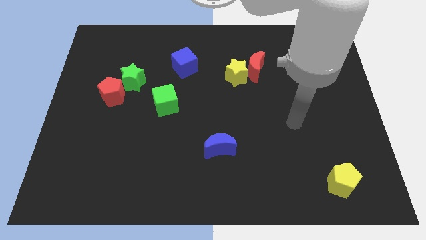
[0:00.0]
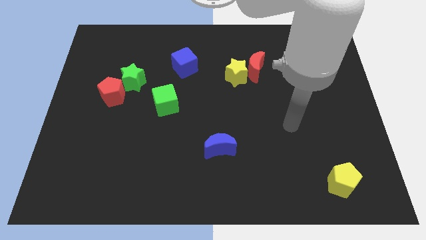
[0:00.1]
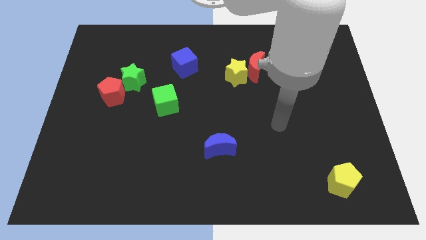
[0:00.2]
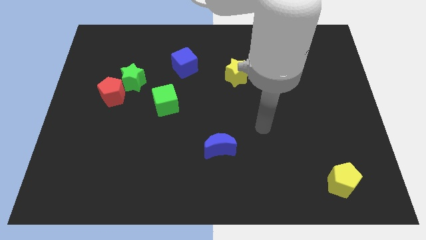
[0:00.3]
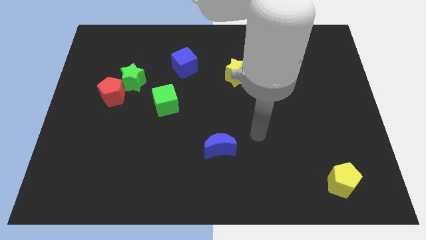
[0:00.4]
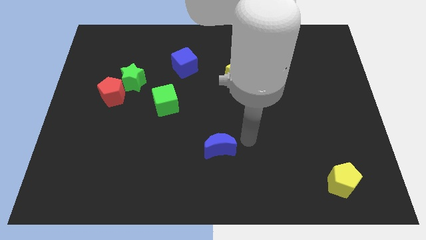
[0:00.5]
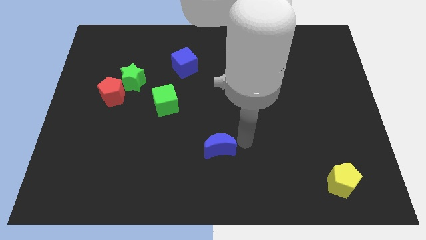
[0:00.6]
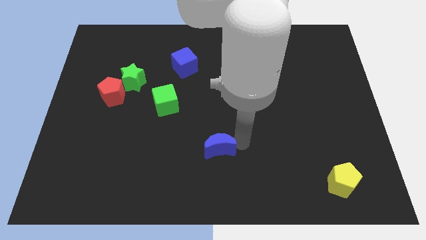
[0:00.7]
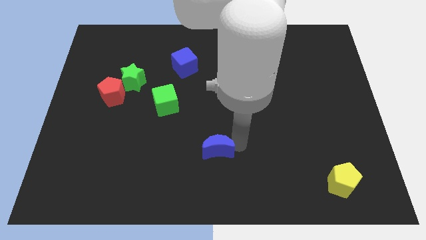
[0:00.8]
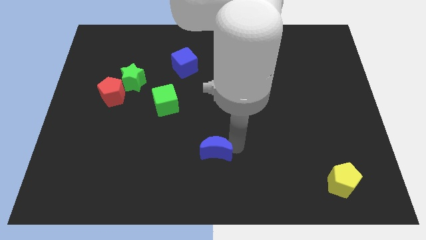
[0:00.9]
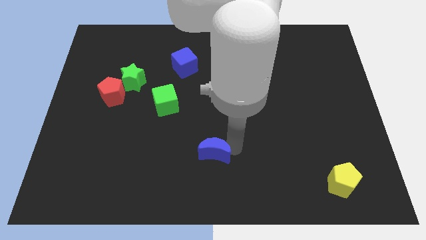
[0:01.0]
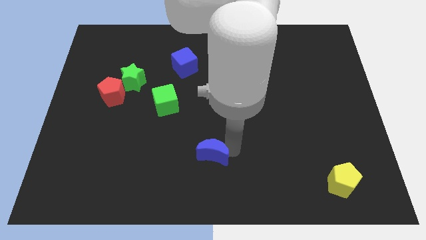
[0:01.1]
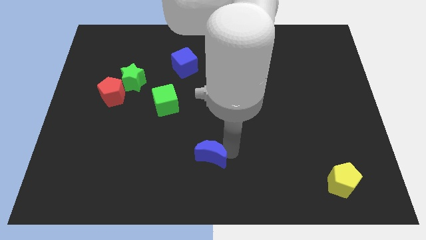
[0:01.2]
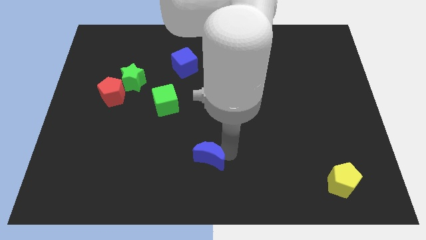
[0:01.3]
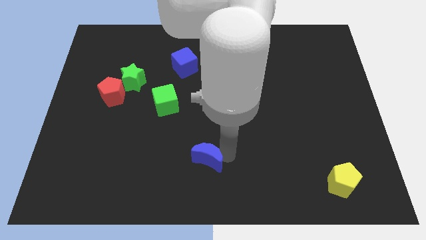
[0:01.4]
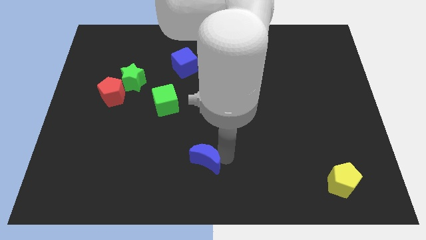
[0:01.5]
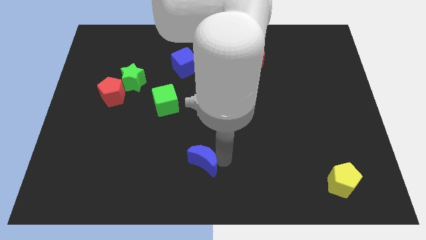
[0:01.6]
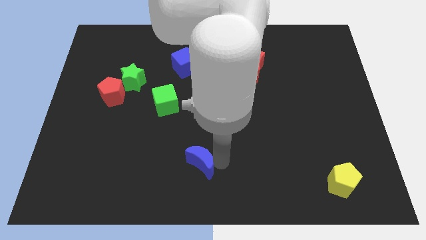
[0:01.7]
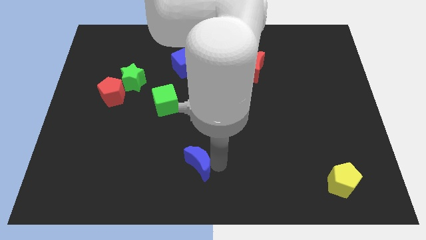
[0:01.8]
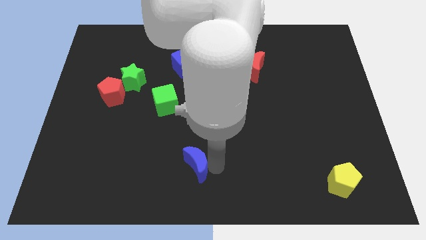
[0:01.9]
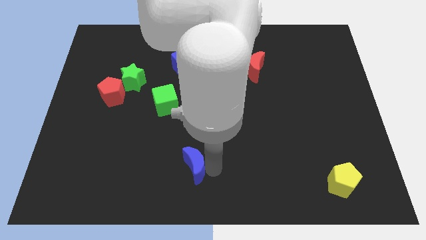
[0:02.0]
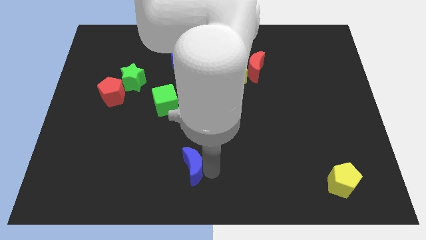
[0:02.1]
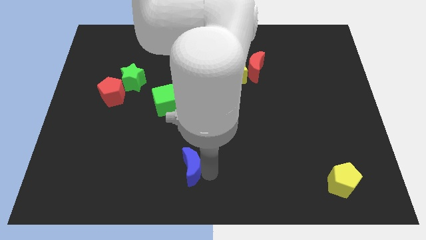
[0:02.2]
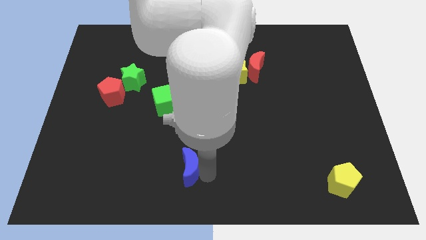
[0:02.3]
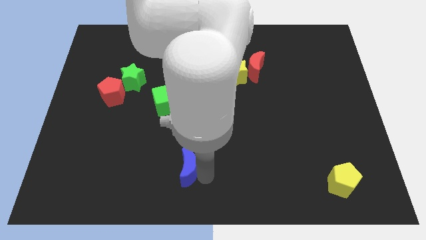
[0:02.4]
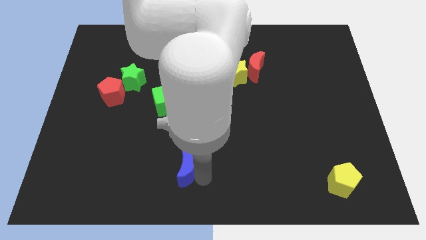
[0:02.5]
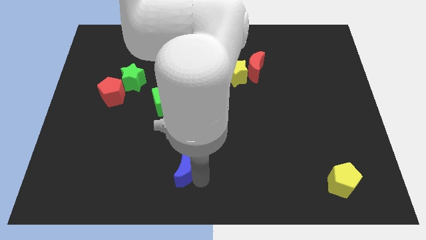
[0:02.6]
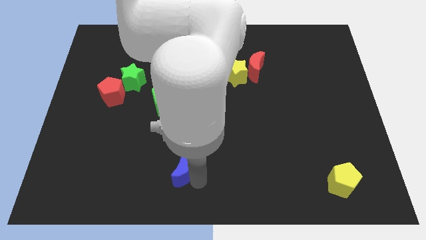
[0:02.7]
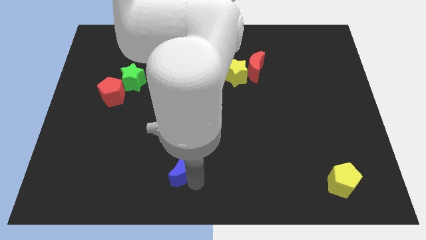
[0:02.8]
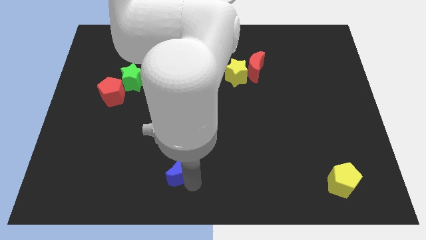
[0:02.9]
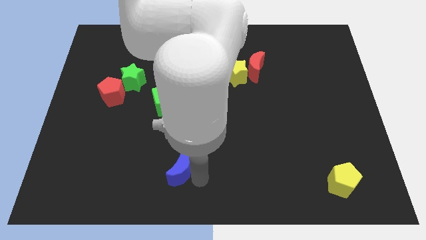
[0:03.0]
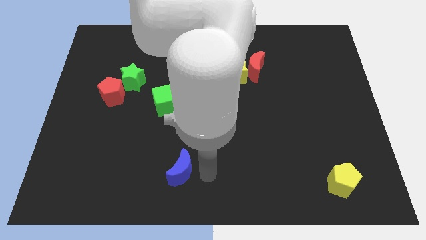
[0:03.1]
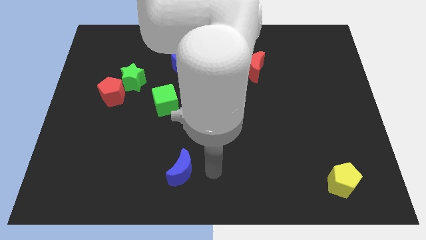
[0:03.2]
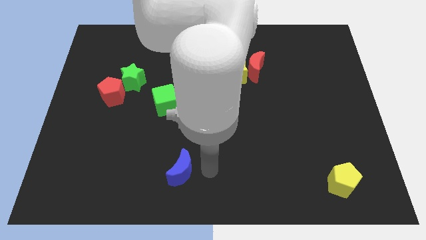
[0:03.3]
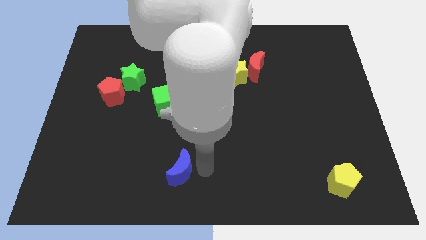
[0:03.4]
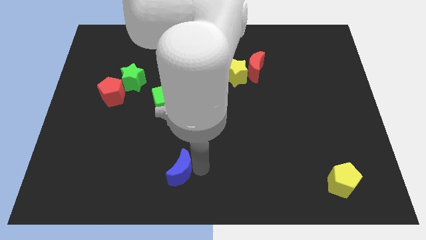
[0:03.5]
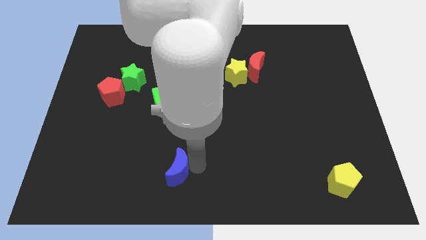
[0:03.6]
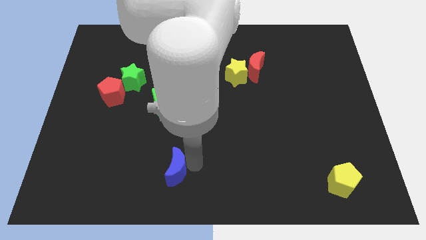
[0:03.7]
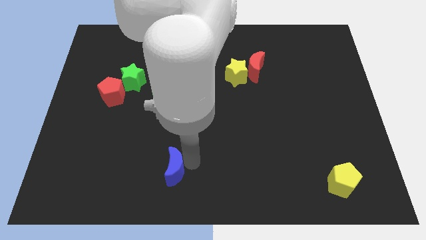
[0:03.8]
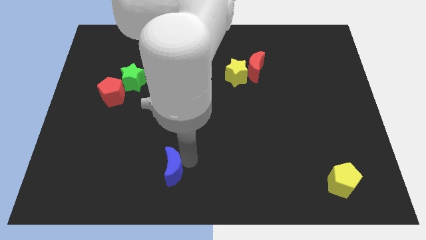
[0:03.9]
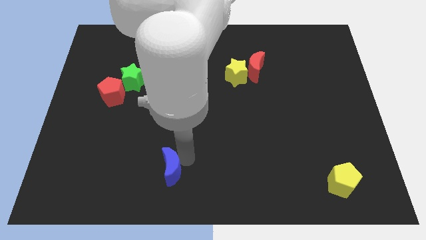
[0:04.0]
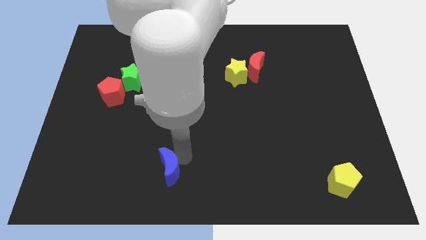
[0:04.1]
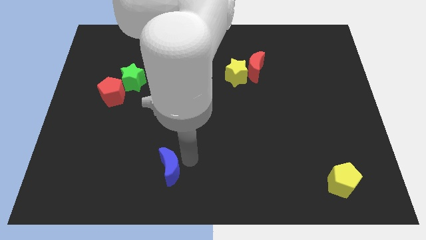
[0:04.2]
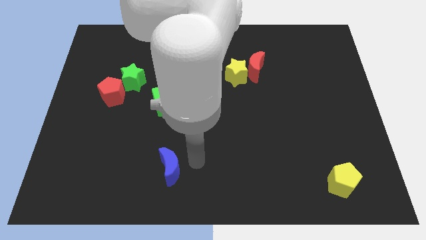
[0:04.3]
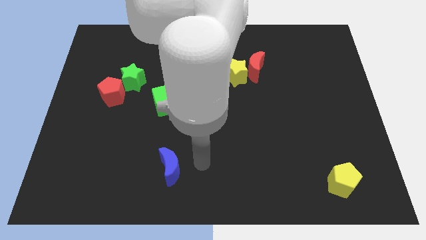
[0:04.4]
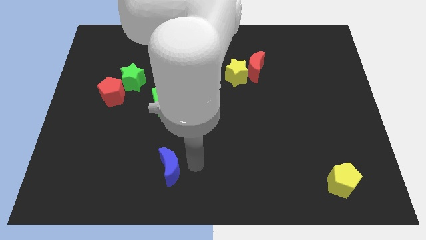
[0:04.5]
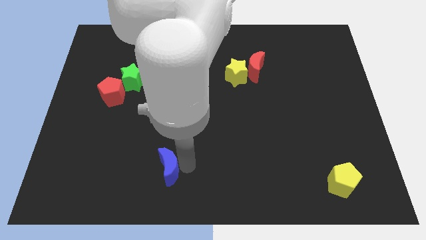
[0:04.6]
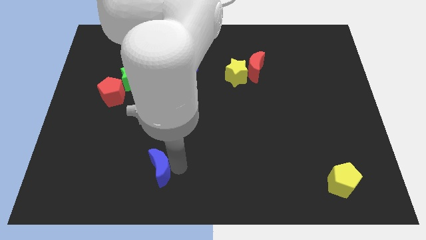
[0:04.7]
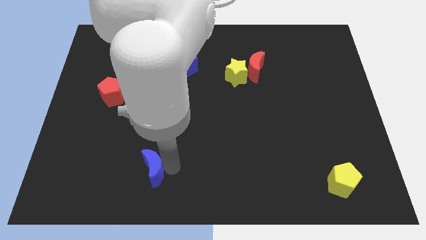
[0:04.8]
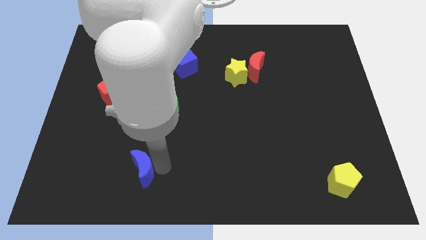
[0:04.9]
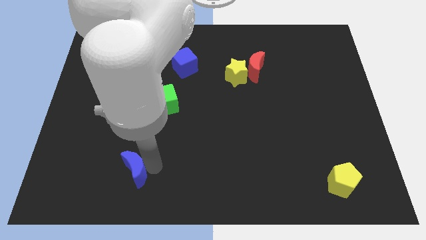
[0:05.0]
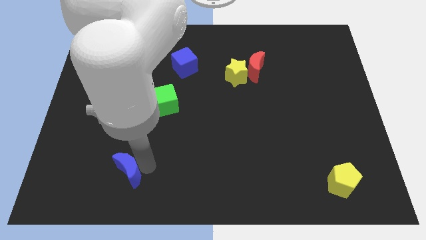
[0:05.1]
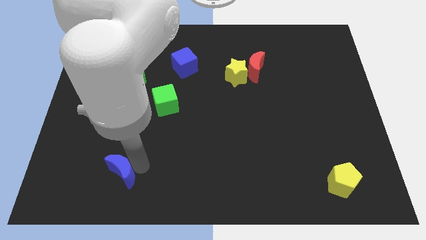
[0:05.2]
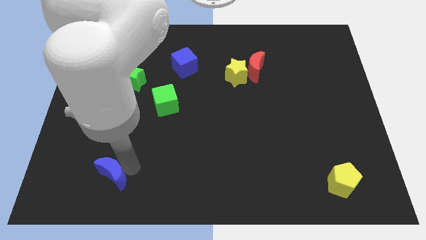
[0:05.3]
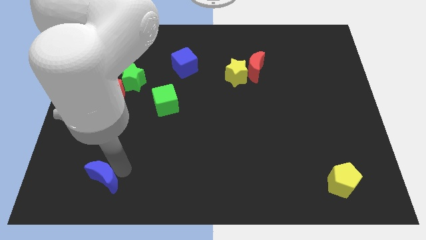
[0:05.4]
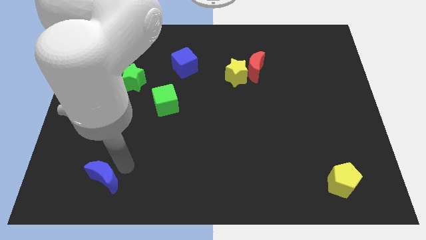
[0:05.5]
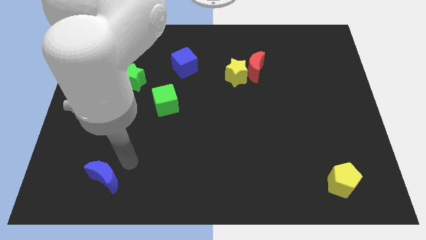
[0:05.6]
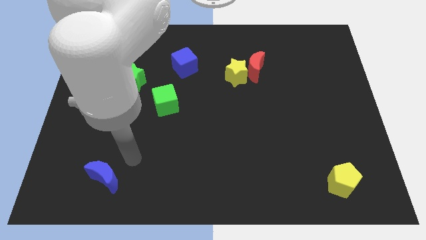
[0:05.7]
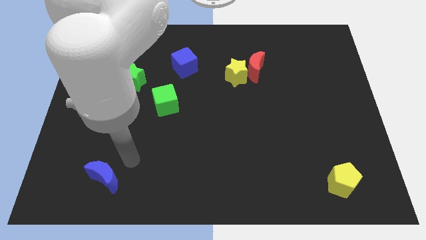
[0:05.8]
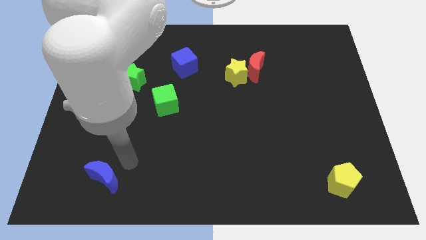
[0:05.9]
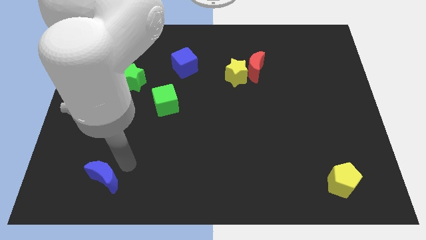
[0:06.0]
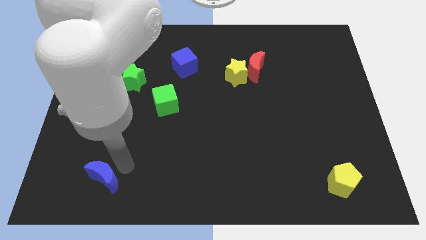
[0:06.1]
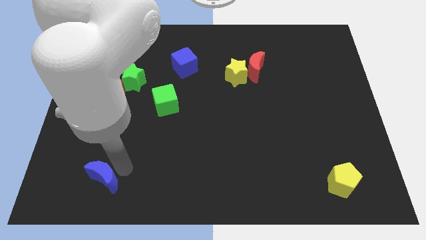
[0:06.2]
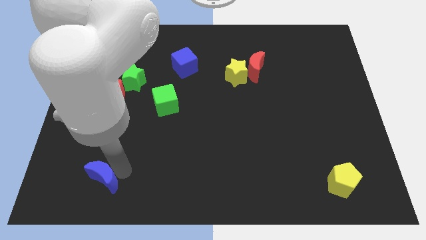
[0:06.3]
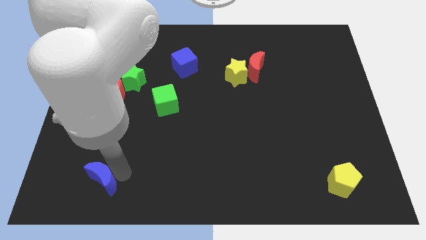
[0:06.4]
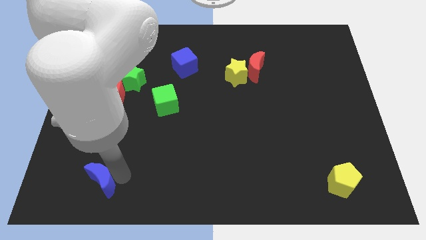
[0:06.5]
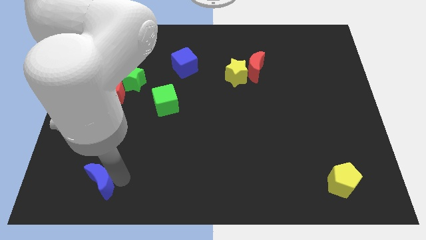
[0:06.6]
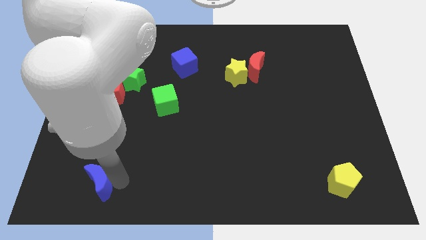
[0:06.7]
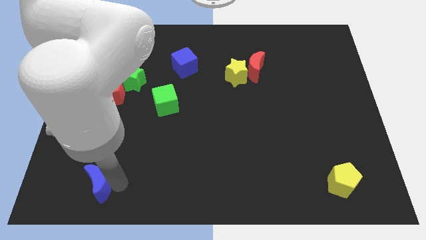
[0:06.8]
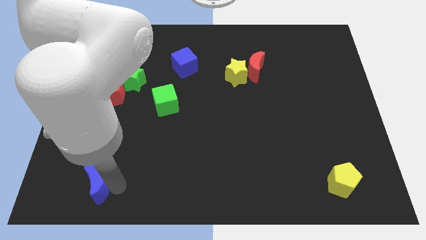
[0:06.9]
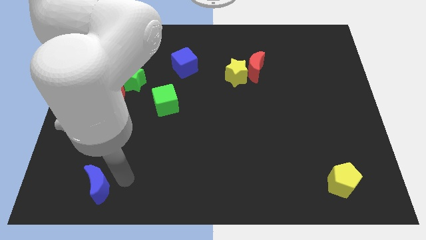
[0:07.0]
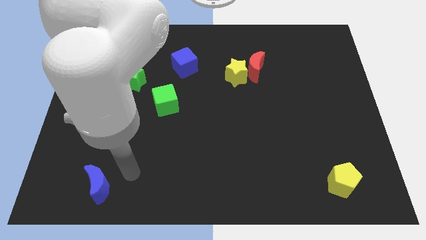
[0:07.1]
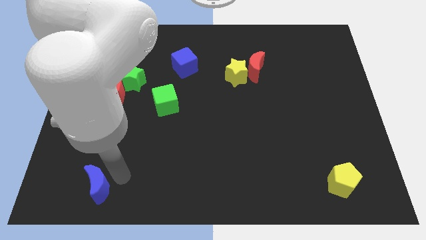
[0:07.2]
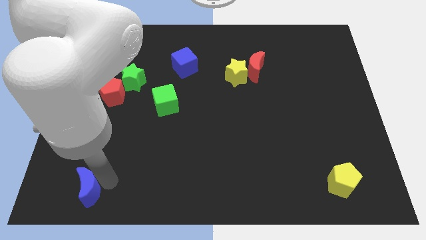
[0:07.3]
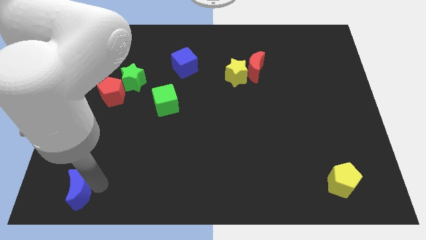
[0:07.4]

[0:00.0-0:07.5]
slide the blue moon to the bottom left of the board
